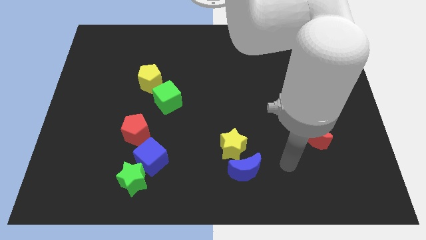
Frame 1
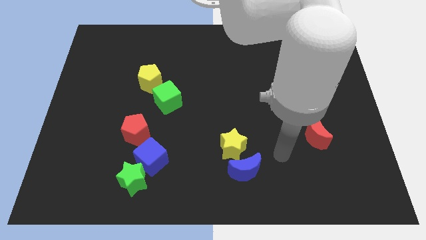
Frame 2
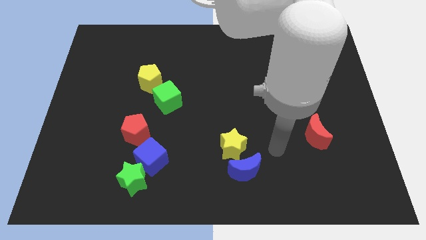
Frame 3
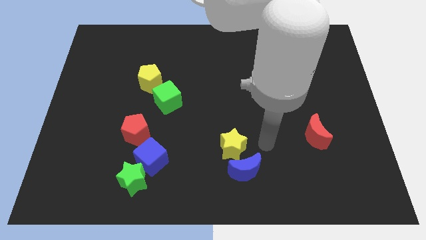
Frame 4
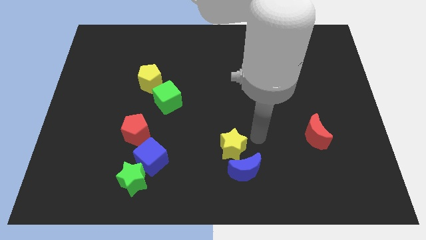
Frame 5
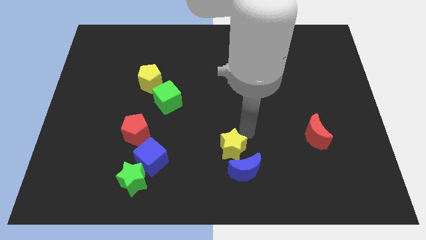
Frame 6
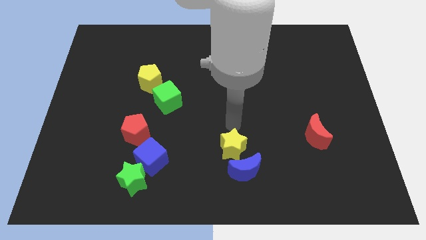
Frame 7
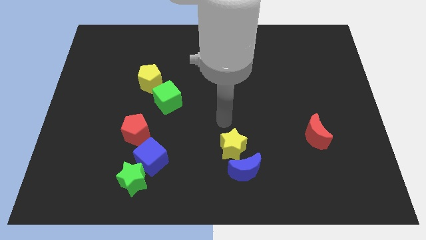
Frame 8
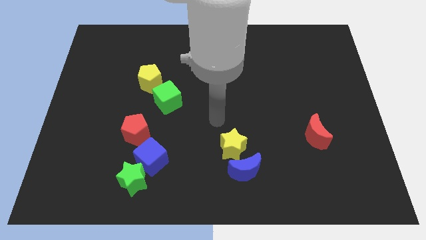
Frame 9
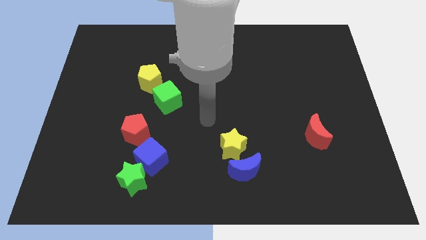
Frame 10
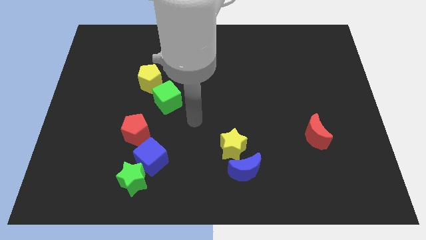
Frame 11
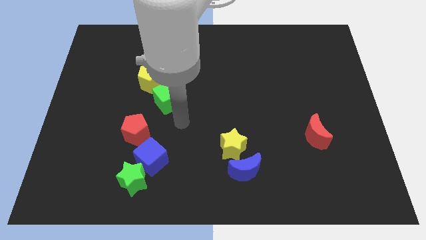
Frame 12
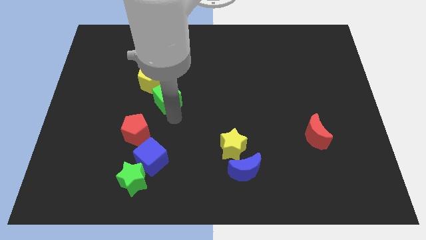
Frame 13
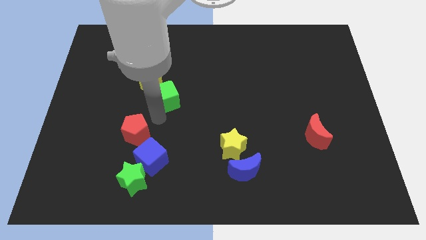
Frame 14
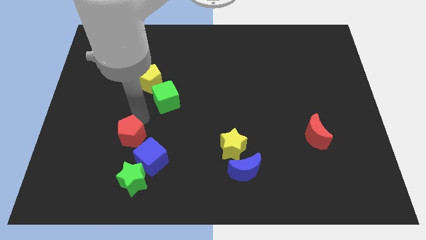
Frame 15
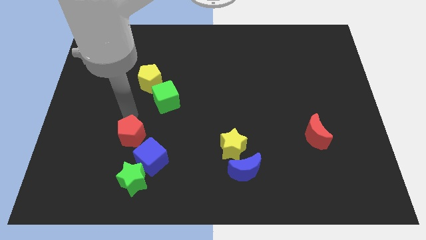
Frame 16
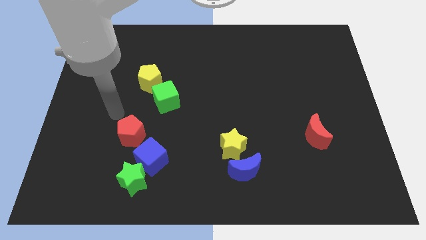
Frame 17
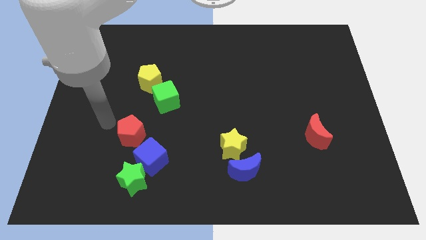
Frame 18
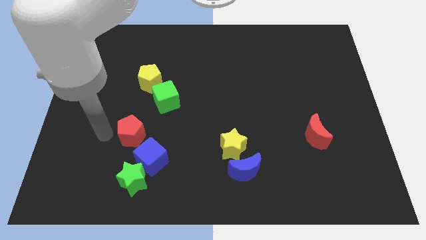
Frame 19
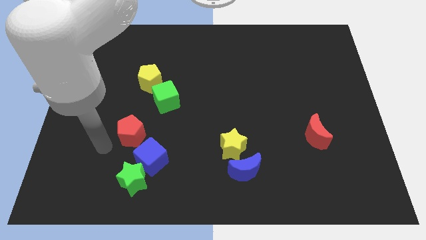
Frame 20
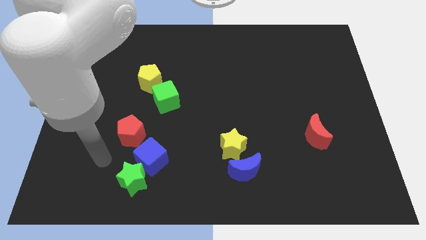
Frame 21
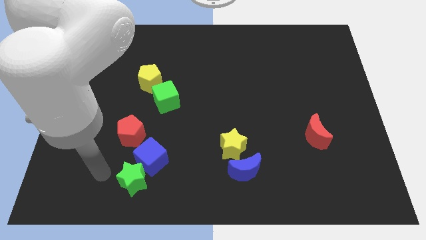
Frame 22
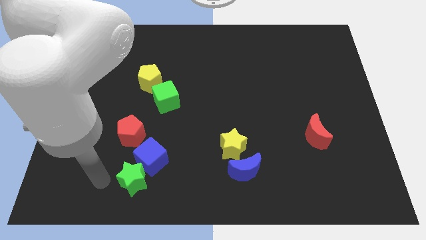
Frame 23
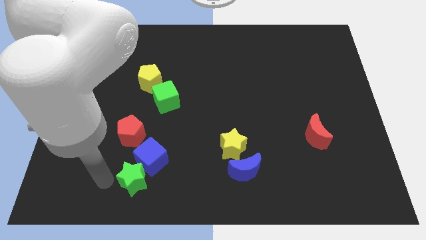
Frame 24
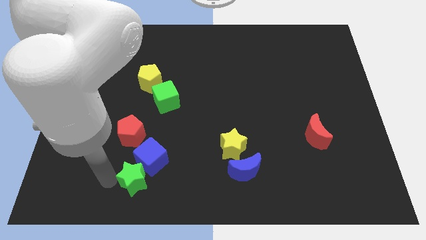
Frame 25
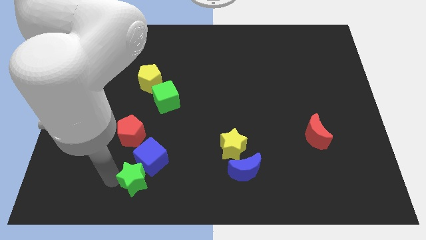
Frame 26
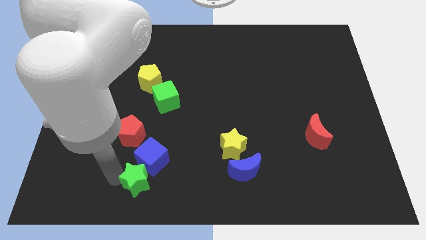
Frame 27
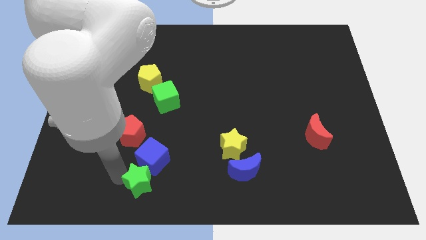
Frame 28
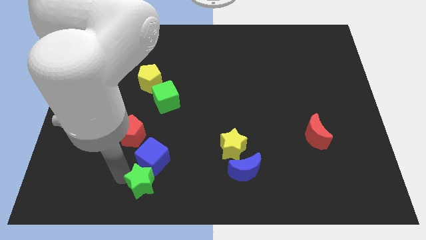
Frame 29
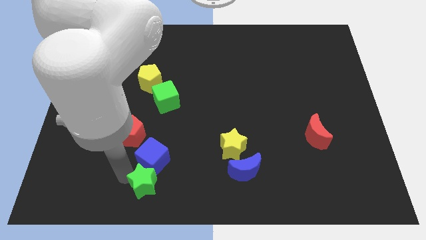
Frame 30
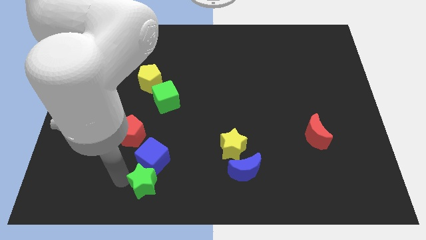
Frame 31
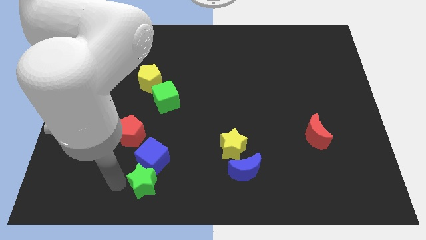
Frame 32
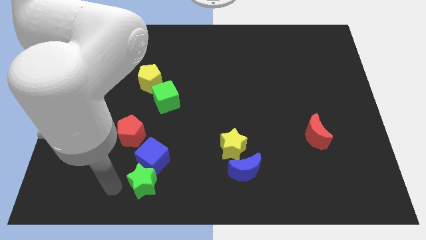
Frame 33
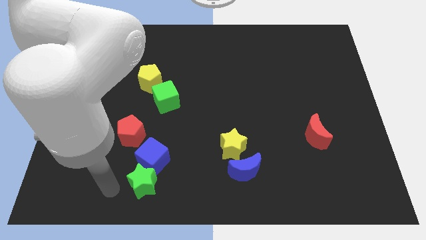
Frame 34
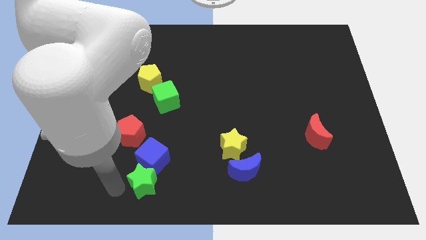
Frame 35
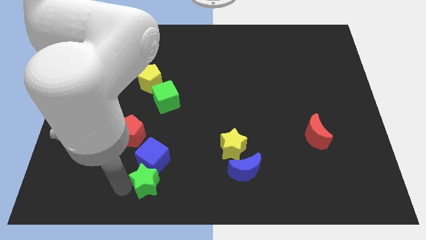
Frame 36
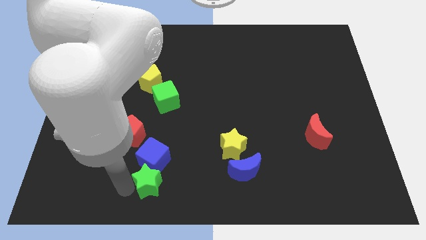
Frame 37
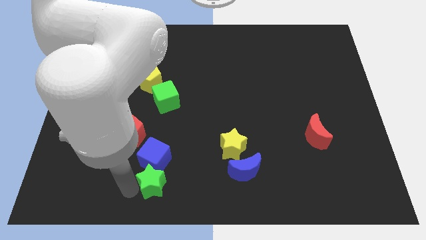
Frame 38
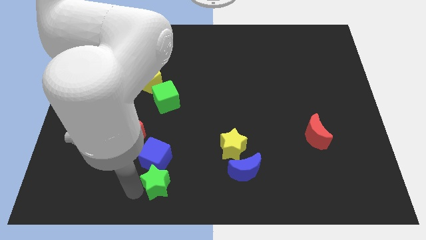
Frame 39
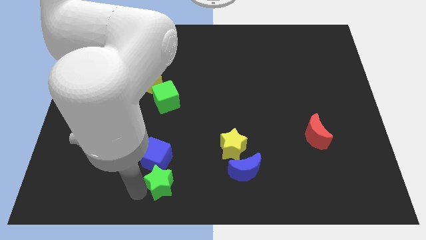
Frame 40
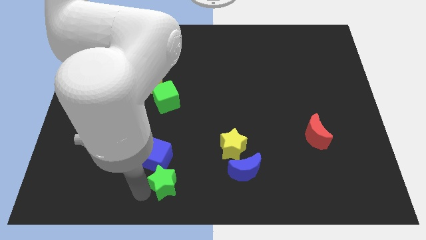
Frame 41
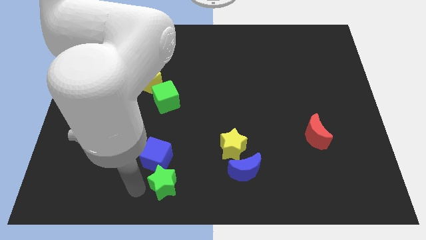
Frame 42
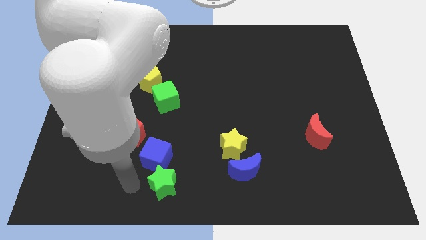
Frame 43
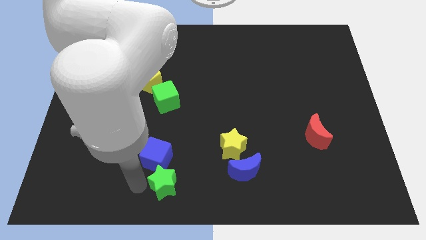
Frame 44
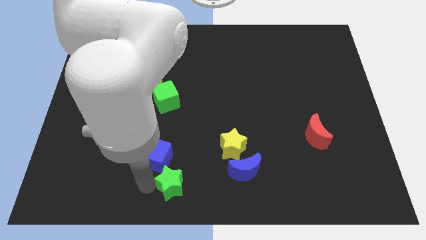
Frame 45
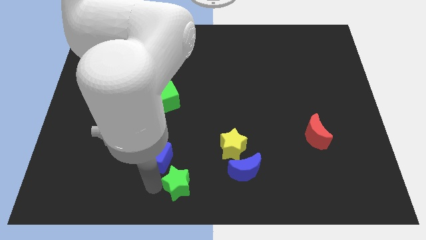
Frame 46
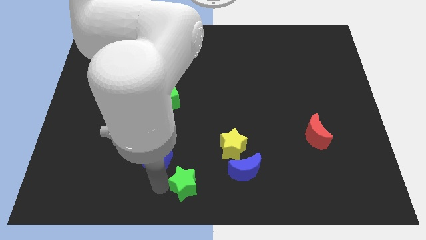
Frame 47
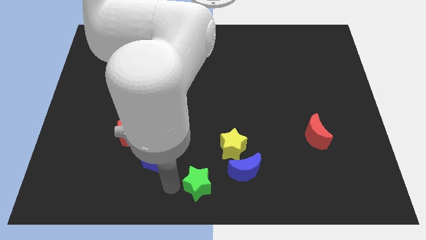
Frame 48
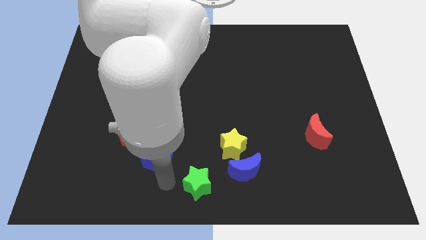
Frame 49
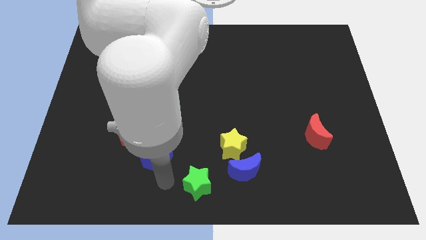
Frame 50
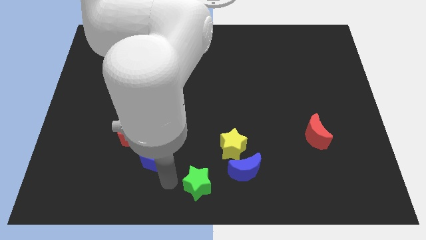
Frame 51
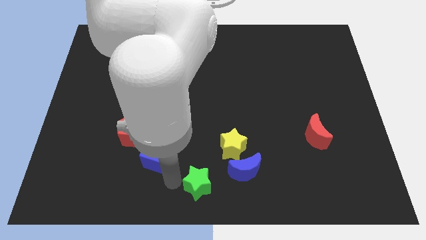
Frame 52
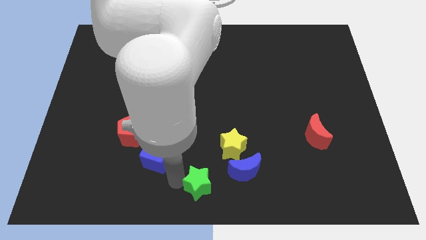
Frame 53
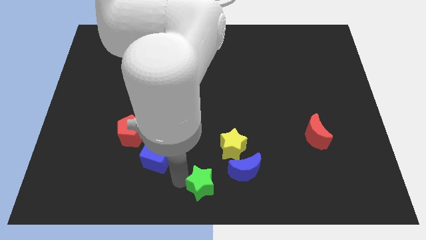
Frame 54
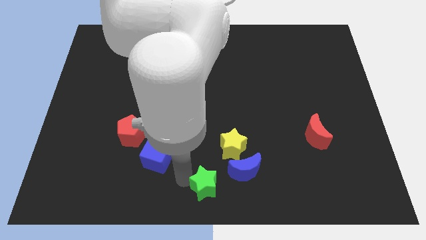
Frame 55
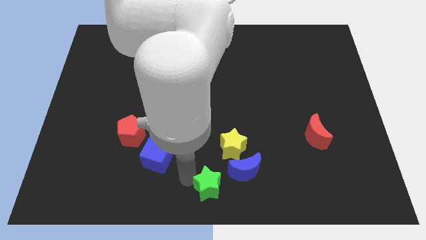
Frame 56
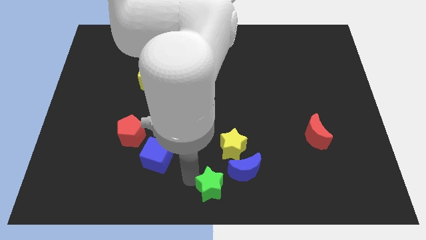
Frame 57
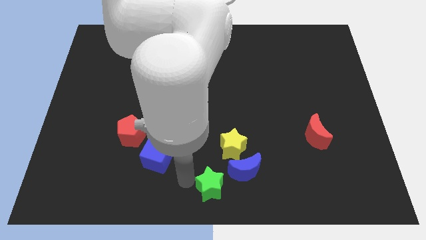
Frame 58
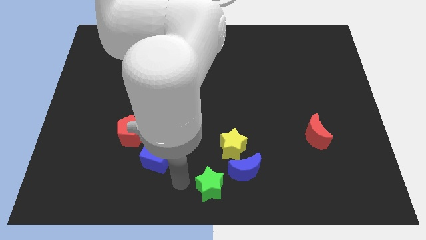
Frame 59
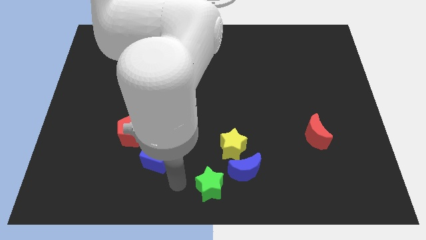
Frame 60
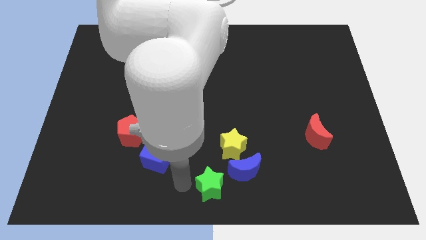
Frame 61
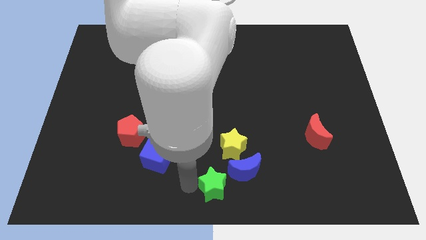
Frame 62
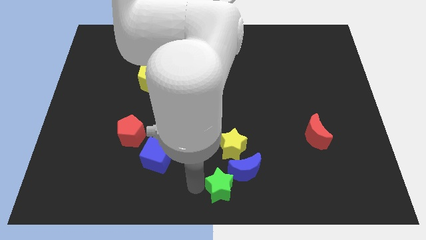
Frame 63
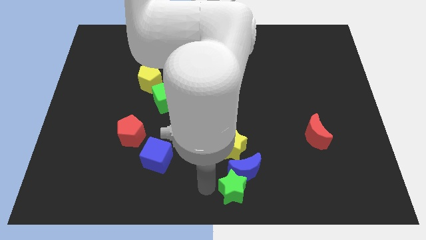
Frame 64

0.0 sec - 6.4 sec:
move the green star to the right

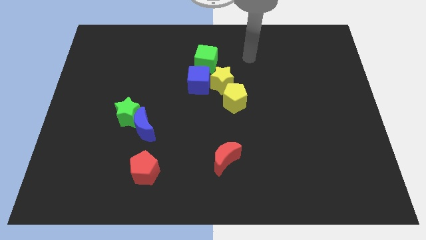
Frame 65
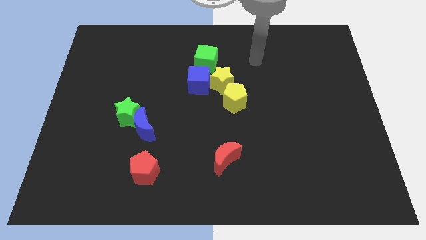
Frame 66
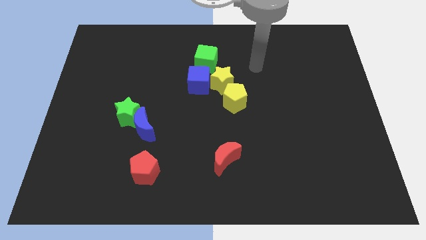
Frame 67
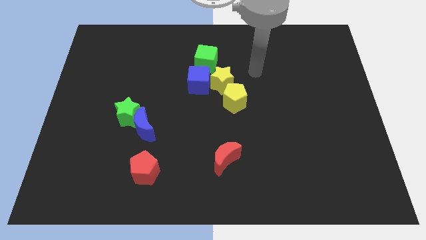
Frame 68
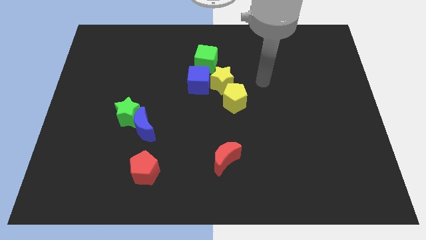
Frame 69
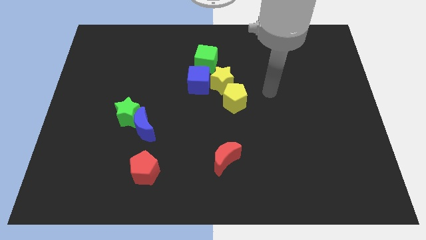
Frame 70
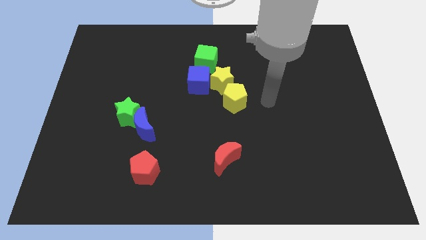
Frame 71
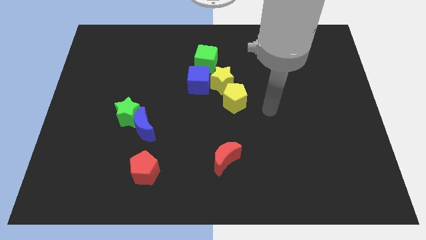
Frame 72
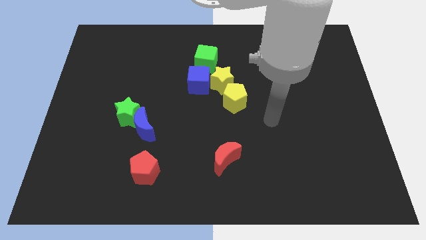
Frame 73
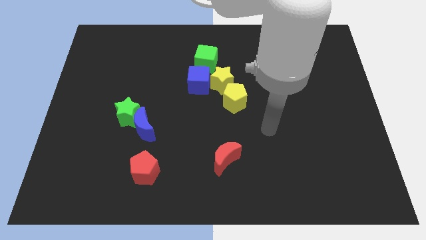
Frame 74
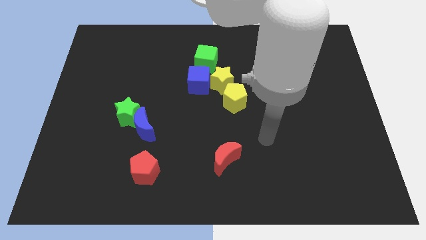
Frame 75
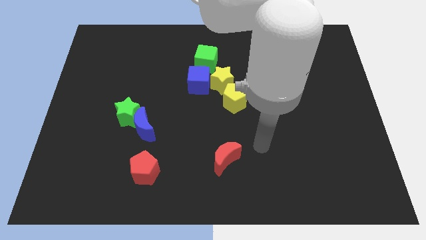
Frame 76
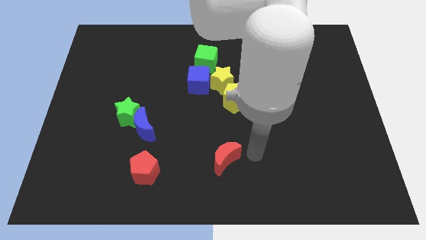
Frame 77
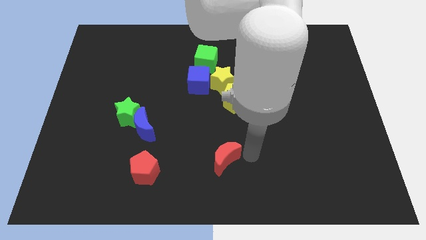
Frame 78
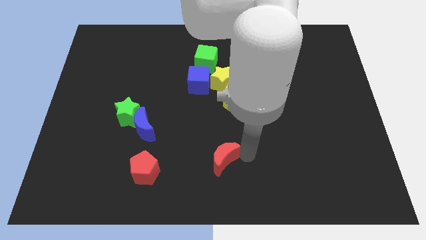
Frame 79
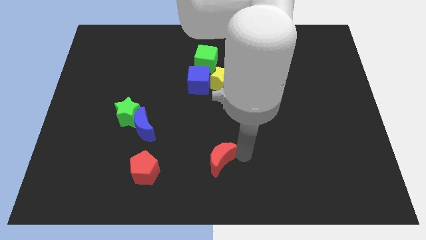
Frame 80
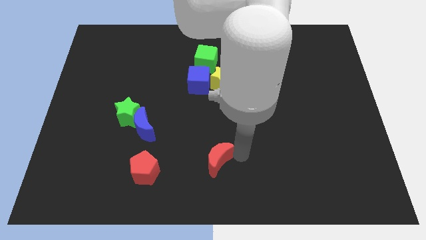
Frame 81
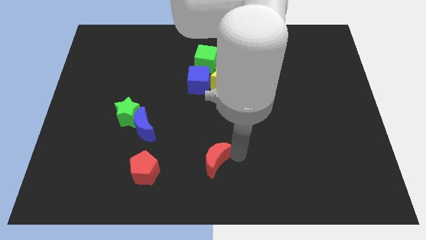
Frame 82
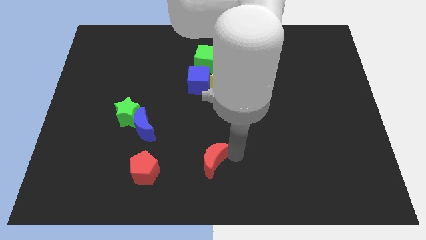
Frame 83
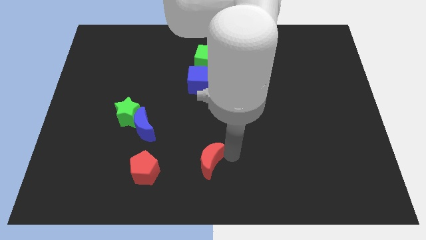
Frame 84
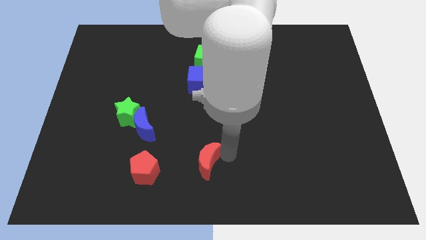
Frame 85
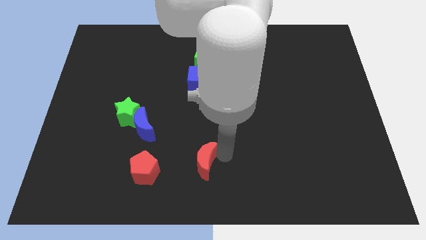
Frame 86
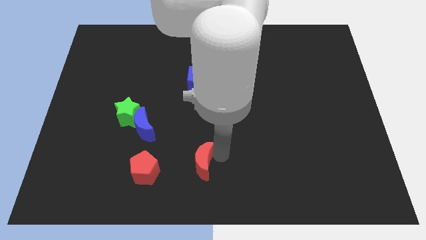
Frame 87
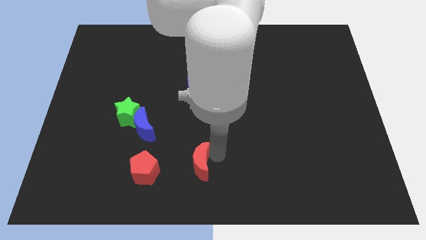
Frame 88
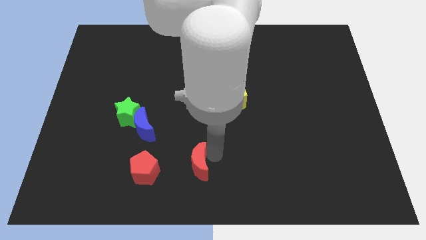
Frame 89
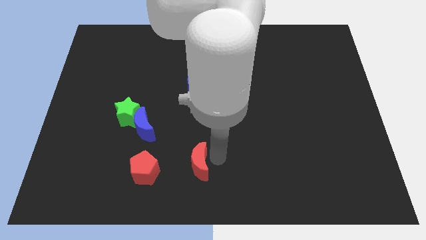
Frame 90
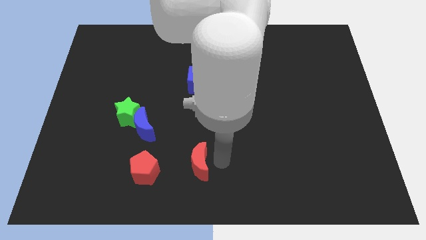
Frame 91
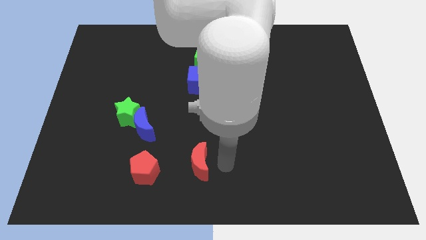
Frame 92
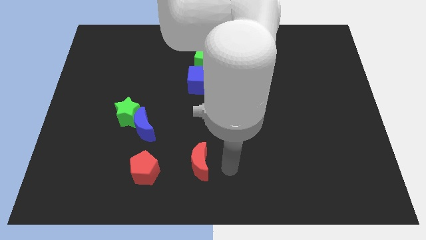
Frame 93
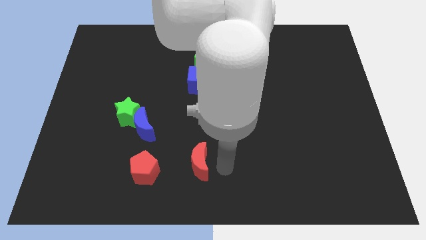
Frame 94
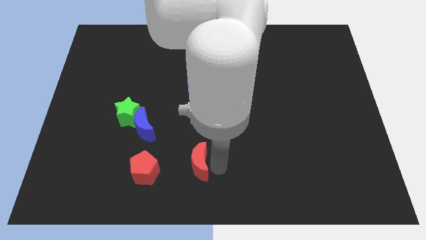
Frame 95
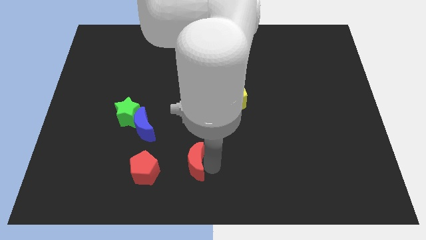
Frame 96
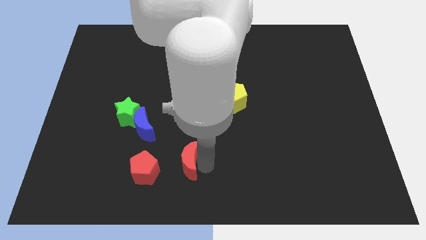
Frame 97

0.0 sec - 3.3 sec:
slightly move the red moon left
